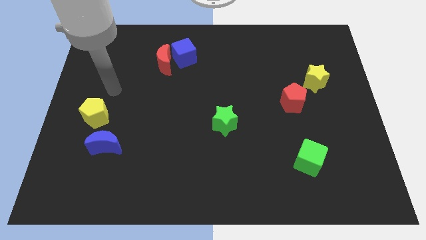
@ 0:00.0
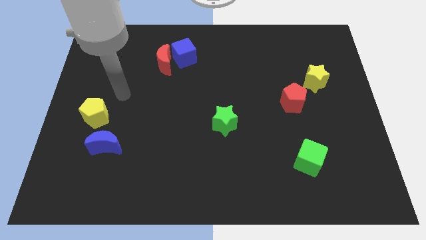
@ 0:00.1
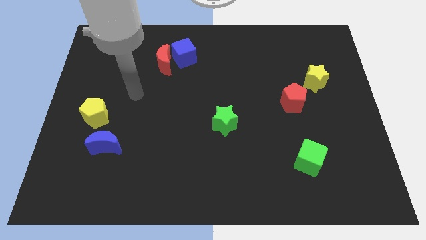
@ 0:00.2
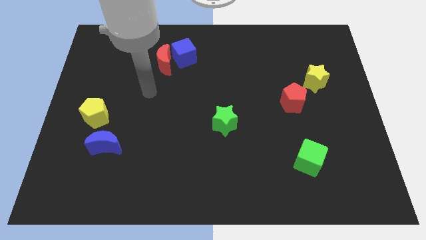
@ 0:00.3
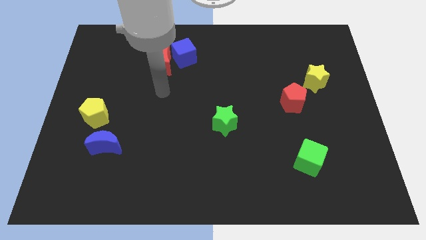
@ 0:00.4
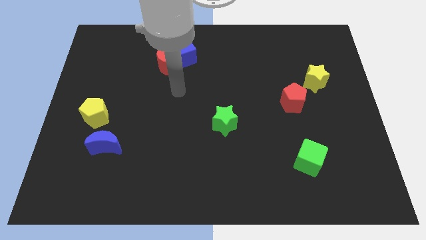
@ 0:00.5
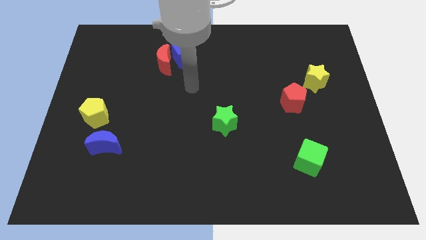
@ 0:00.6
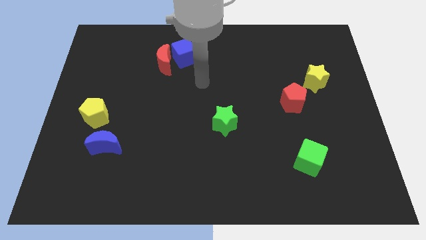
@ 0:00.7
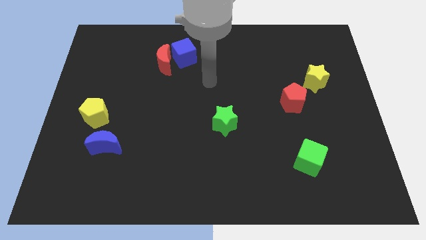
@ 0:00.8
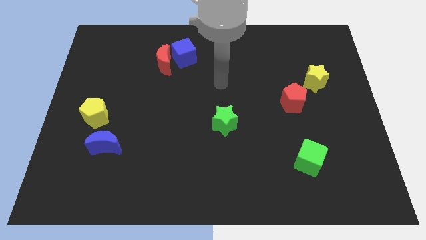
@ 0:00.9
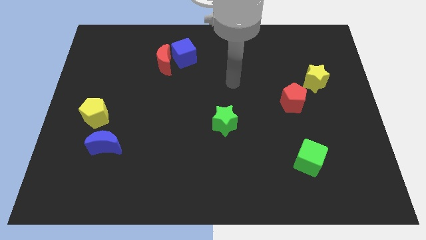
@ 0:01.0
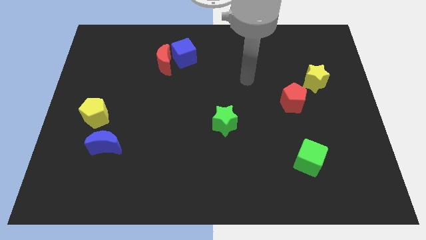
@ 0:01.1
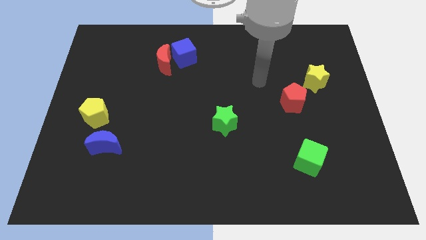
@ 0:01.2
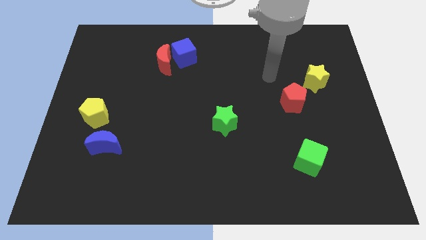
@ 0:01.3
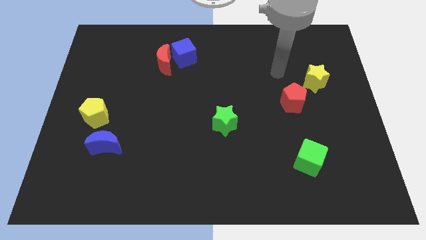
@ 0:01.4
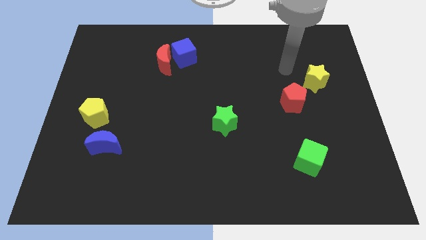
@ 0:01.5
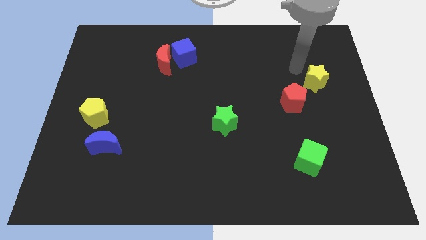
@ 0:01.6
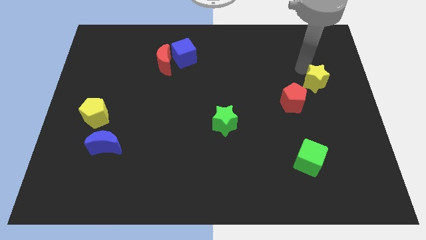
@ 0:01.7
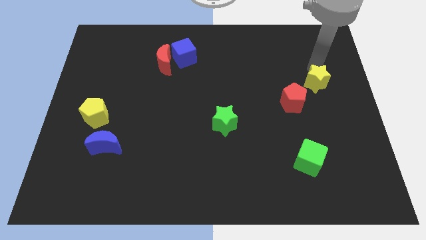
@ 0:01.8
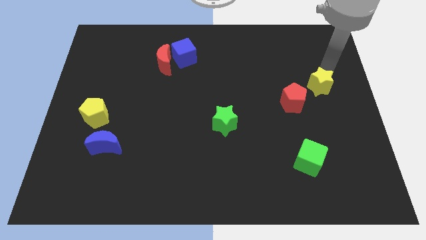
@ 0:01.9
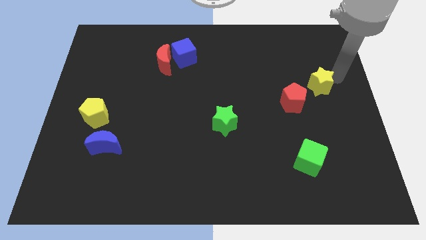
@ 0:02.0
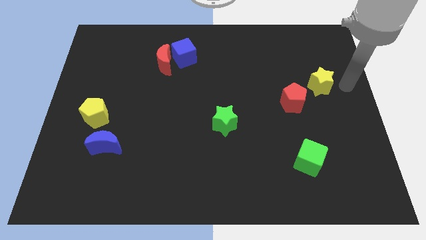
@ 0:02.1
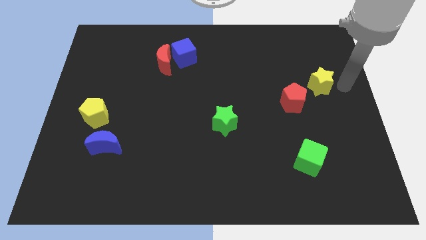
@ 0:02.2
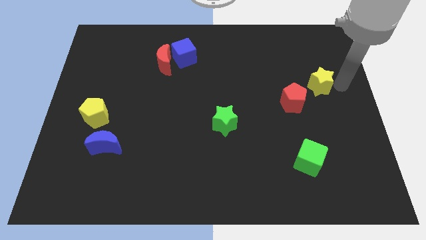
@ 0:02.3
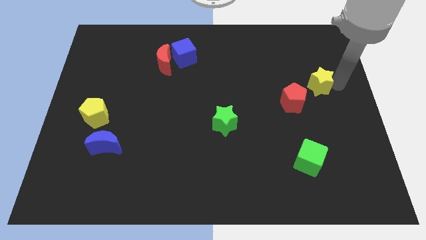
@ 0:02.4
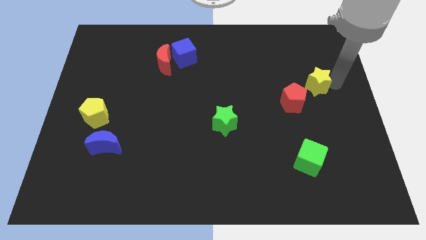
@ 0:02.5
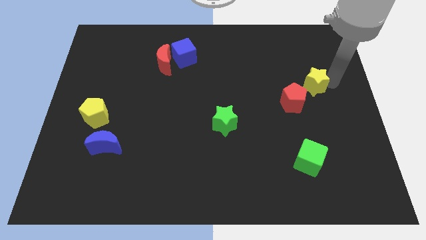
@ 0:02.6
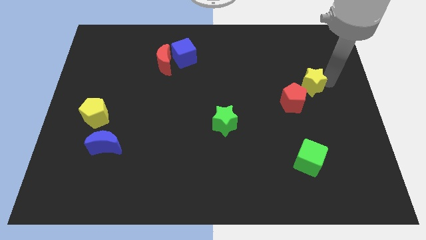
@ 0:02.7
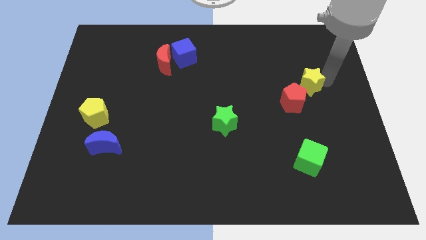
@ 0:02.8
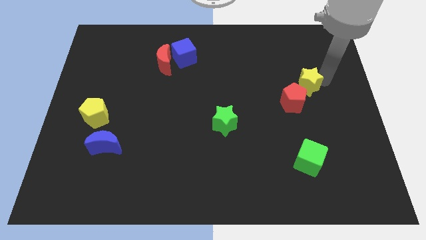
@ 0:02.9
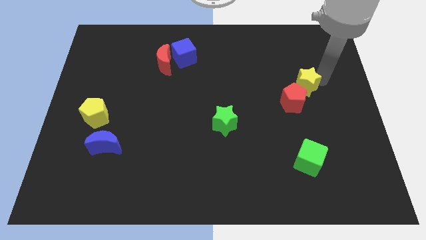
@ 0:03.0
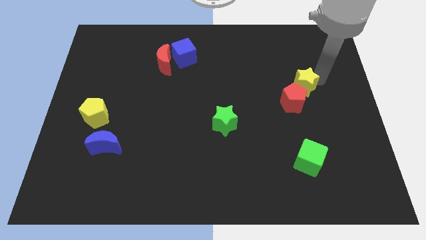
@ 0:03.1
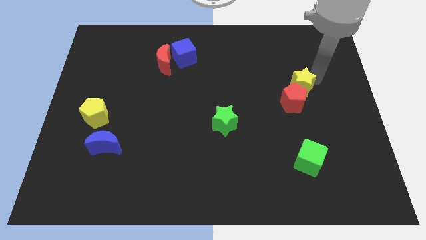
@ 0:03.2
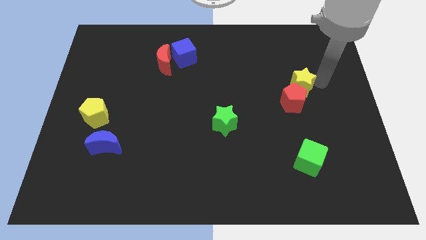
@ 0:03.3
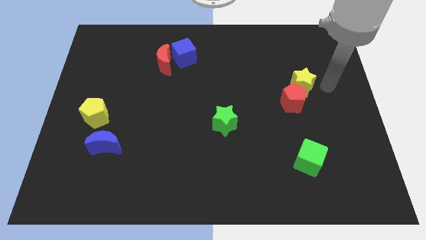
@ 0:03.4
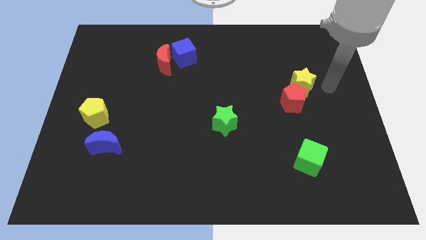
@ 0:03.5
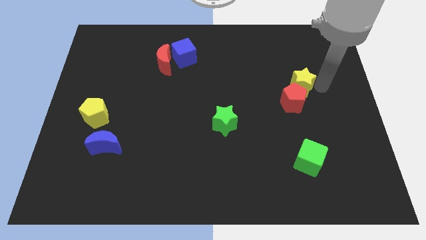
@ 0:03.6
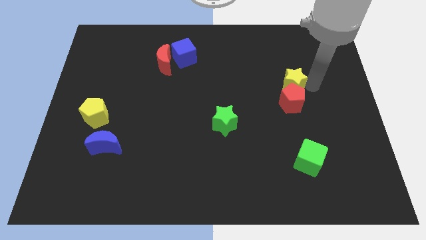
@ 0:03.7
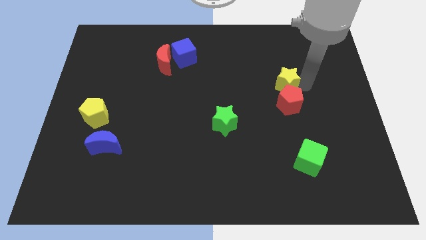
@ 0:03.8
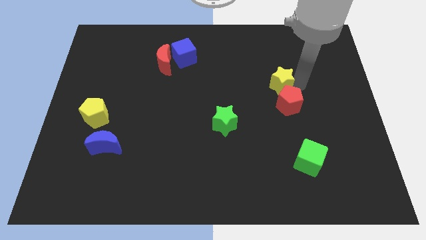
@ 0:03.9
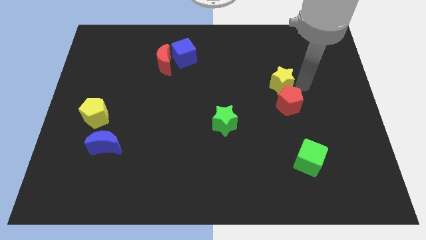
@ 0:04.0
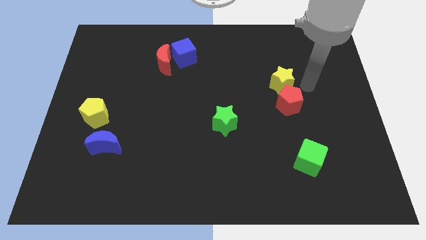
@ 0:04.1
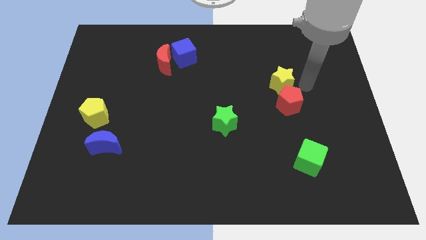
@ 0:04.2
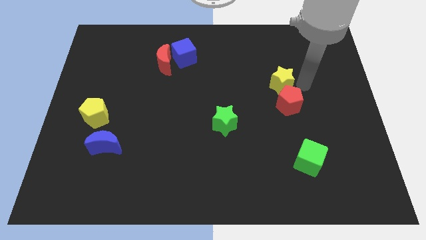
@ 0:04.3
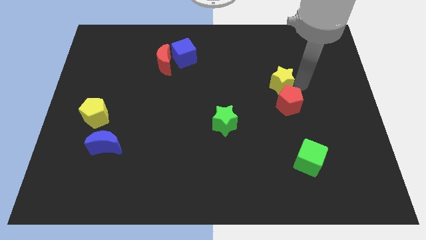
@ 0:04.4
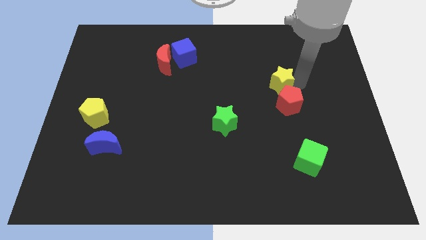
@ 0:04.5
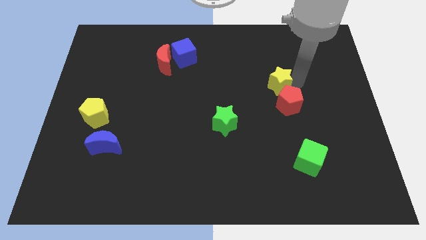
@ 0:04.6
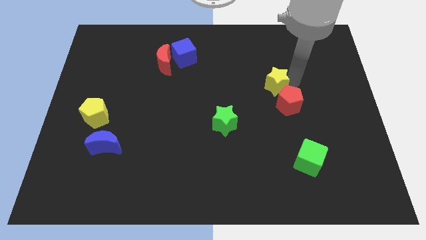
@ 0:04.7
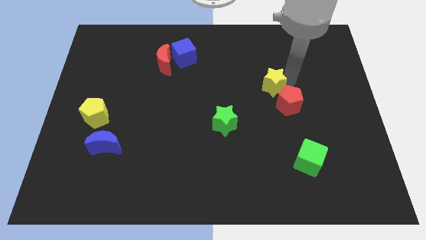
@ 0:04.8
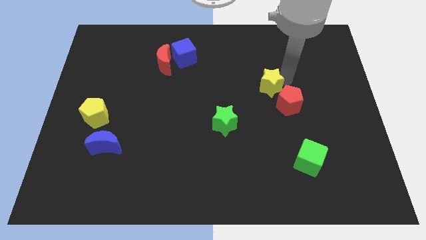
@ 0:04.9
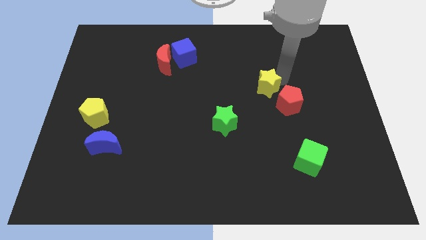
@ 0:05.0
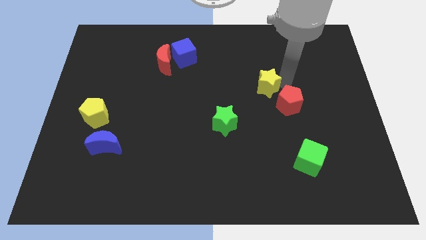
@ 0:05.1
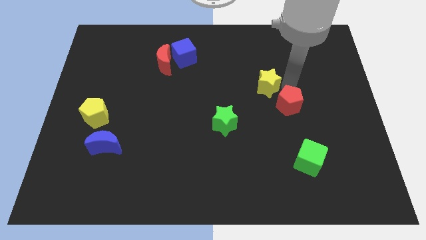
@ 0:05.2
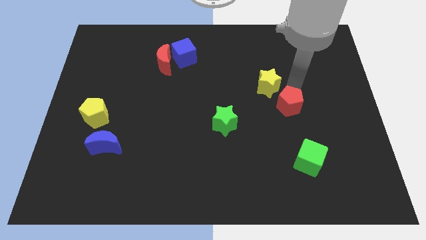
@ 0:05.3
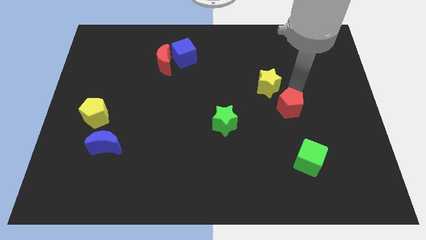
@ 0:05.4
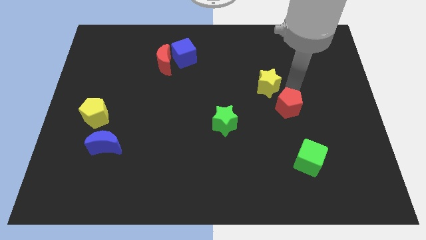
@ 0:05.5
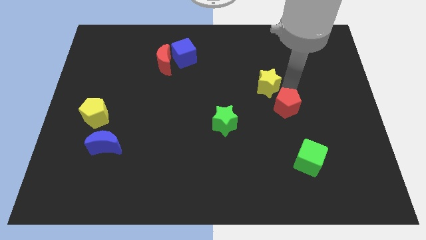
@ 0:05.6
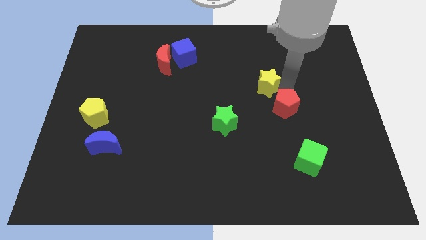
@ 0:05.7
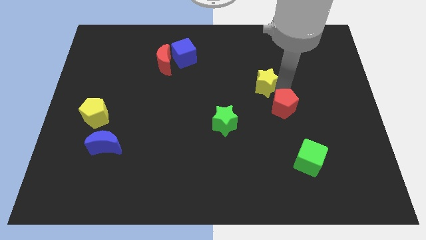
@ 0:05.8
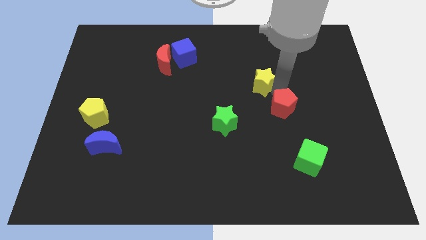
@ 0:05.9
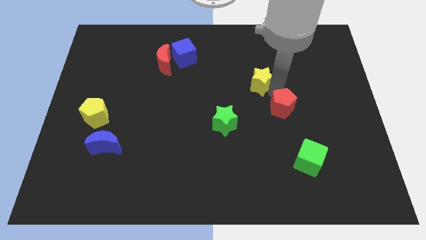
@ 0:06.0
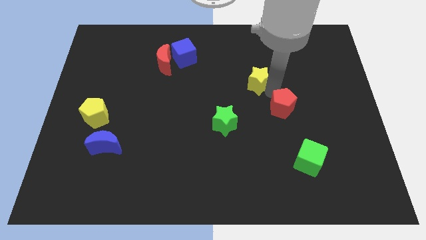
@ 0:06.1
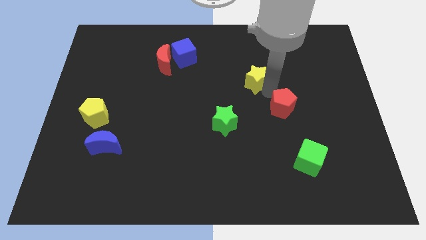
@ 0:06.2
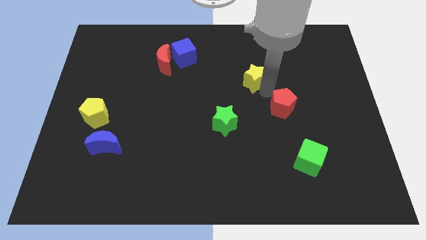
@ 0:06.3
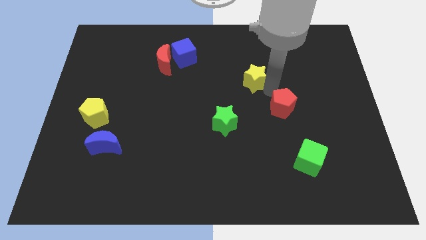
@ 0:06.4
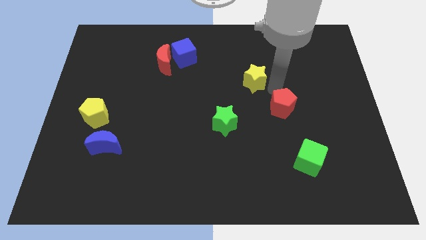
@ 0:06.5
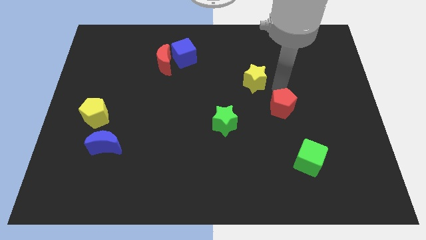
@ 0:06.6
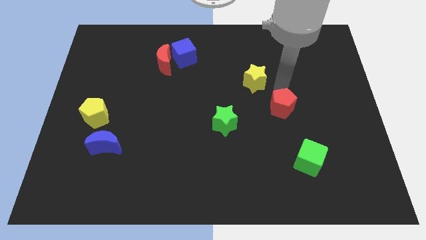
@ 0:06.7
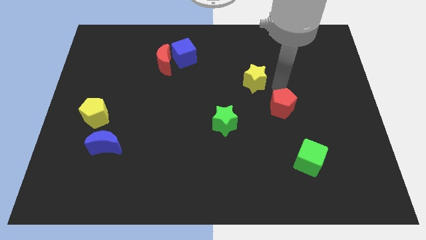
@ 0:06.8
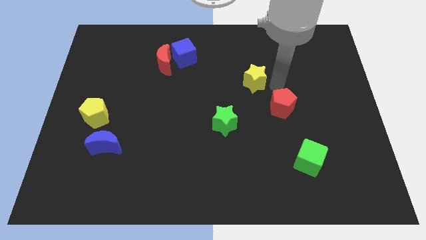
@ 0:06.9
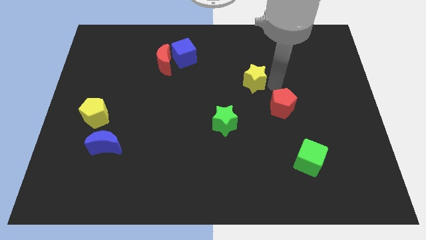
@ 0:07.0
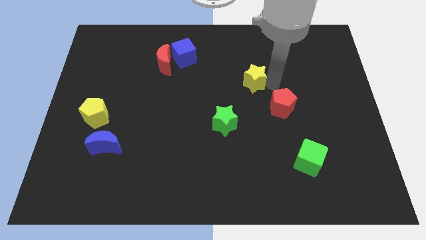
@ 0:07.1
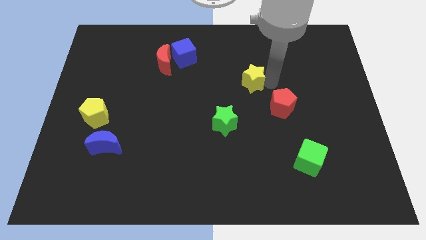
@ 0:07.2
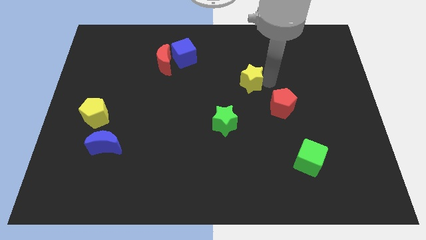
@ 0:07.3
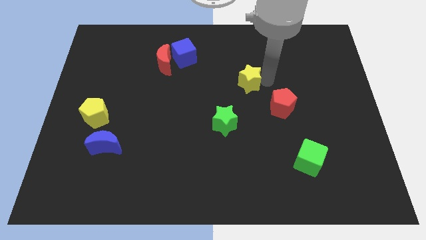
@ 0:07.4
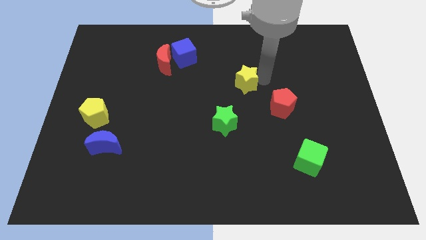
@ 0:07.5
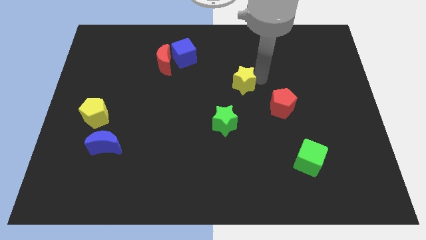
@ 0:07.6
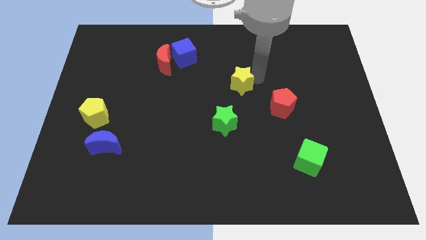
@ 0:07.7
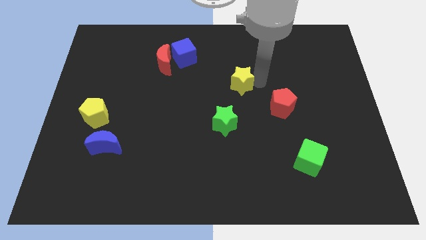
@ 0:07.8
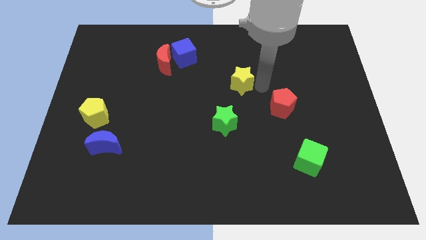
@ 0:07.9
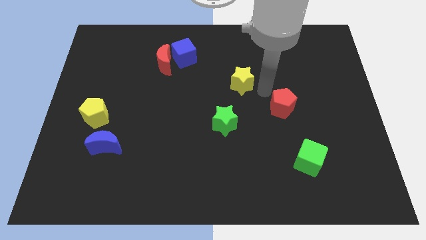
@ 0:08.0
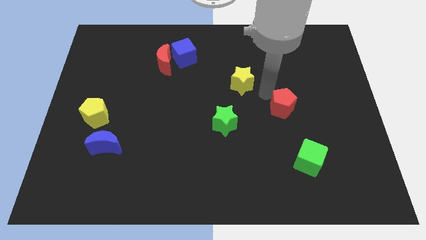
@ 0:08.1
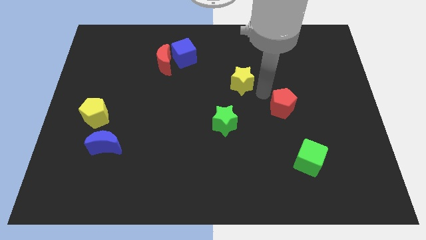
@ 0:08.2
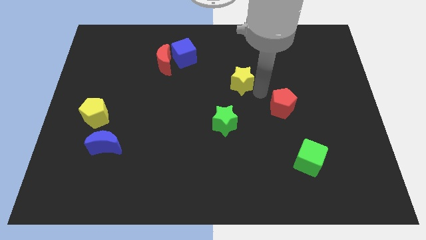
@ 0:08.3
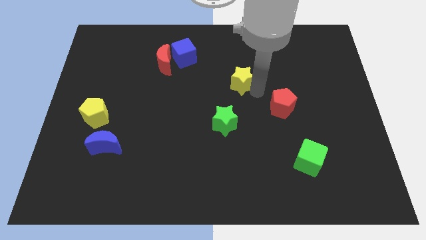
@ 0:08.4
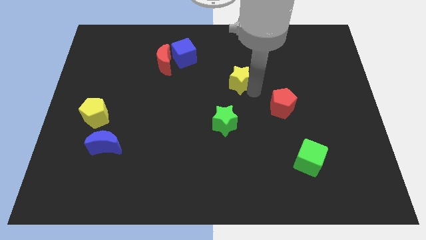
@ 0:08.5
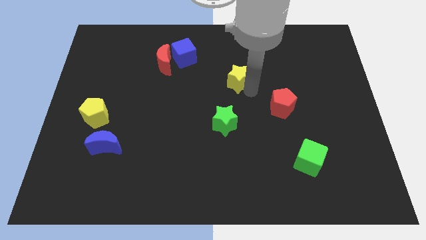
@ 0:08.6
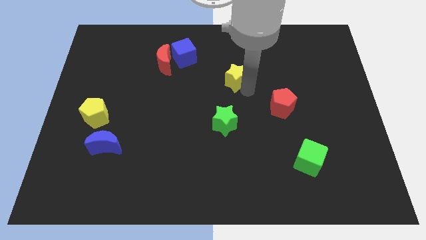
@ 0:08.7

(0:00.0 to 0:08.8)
slide the yellow star to the left
